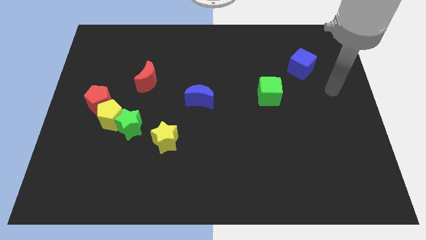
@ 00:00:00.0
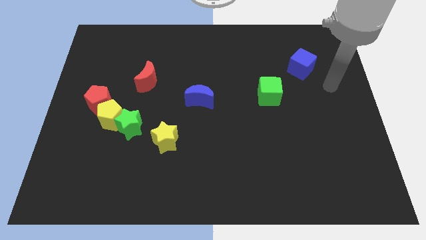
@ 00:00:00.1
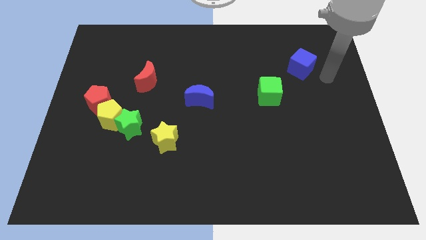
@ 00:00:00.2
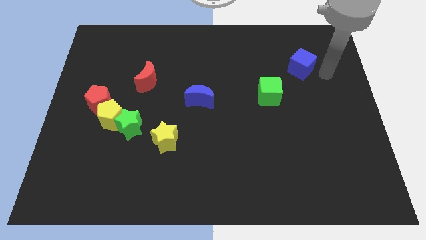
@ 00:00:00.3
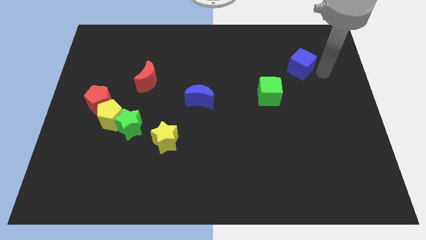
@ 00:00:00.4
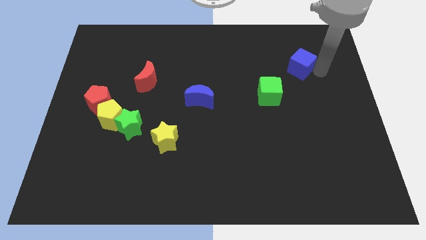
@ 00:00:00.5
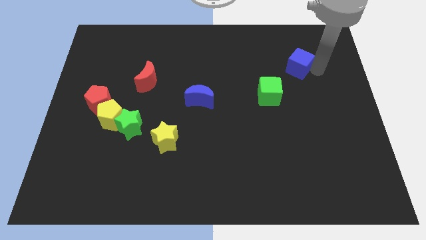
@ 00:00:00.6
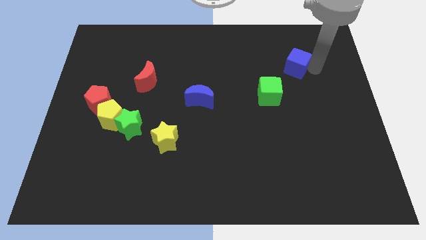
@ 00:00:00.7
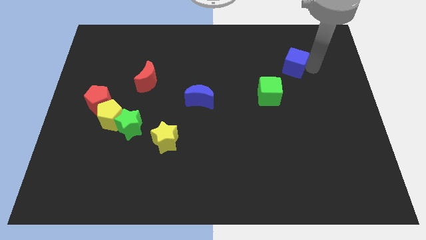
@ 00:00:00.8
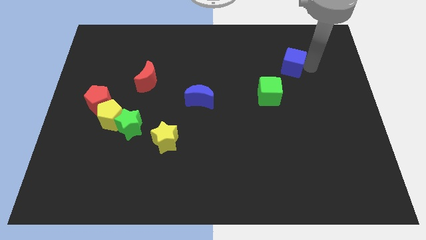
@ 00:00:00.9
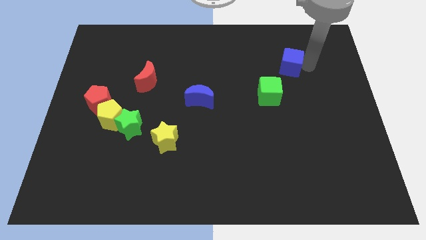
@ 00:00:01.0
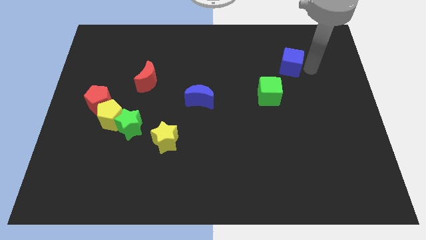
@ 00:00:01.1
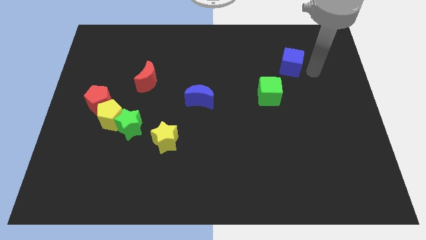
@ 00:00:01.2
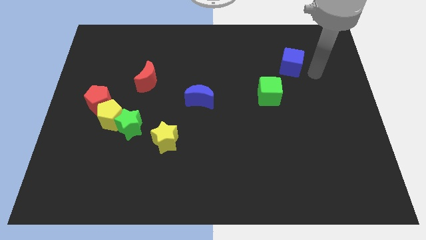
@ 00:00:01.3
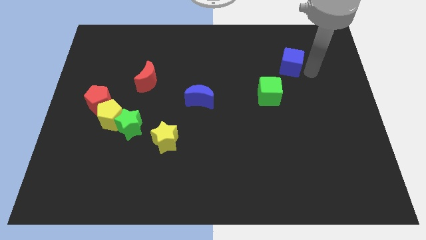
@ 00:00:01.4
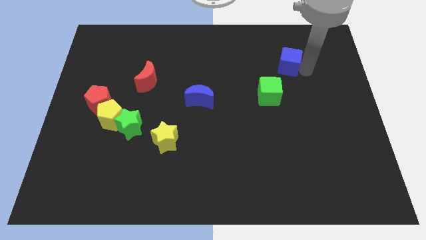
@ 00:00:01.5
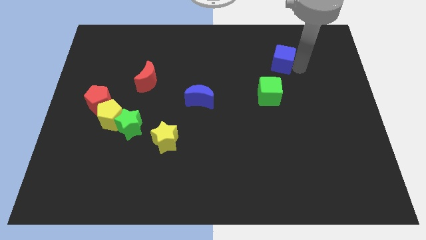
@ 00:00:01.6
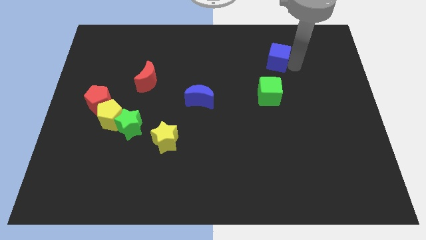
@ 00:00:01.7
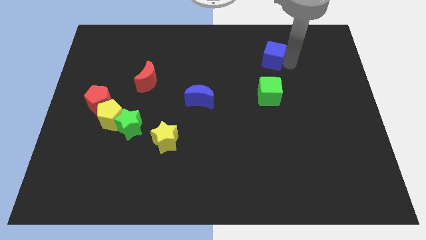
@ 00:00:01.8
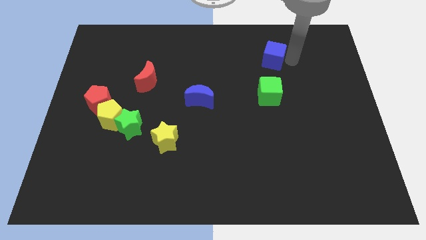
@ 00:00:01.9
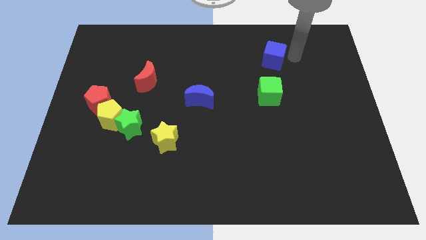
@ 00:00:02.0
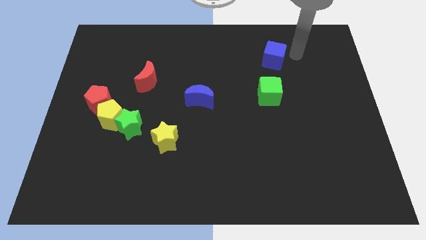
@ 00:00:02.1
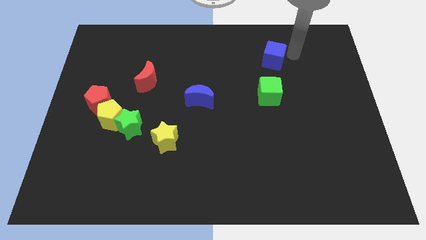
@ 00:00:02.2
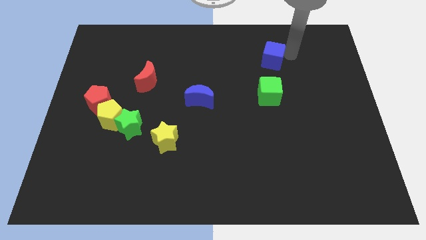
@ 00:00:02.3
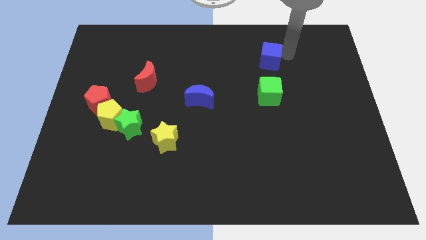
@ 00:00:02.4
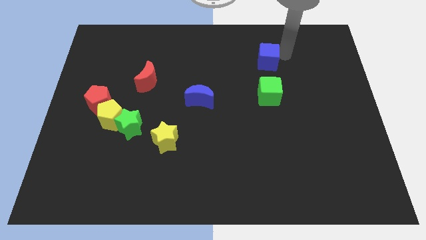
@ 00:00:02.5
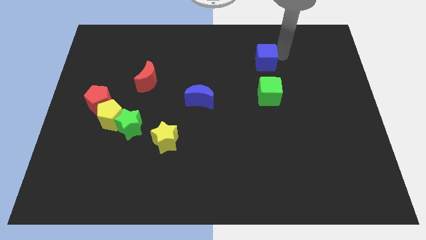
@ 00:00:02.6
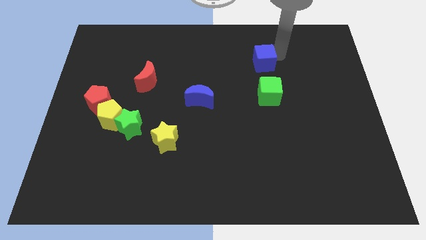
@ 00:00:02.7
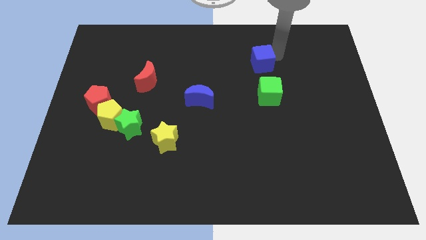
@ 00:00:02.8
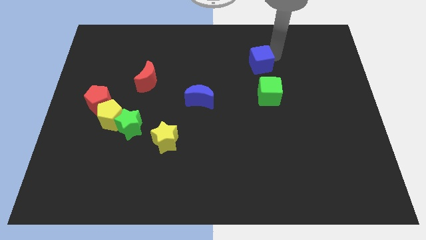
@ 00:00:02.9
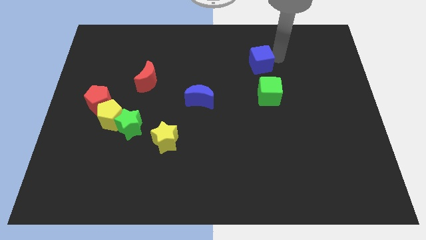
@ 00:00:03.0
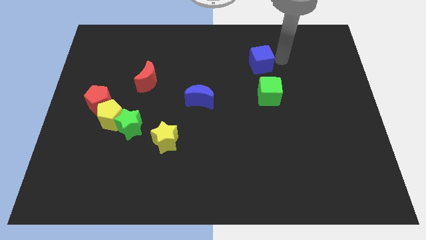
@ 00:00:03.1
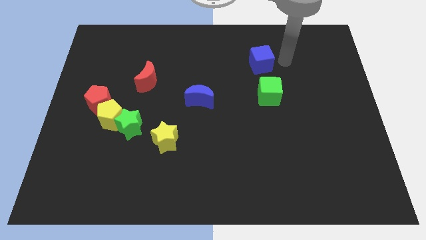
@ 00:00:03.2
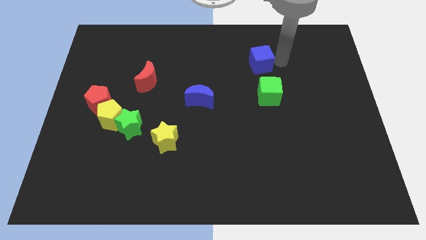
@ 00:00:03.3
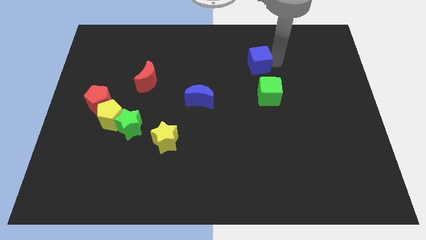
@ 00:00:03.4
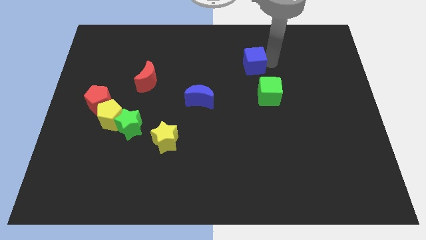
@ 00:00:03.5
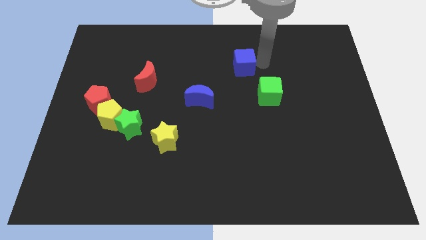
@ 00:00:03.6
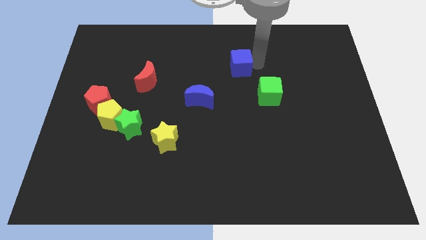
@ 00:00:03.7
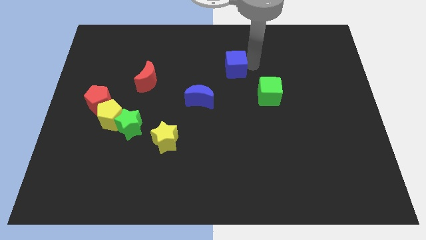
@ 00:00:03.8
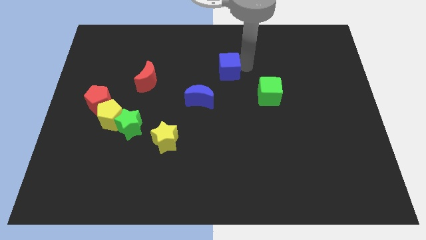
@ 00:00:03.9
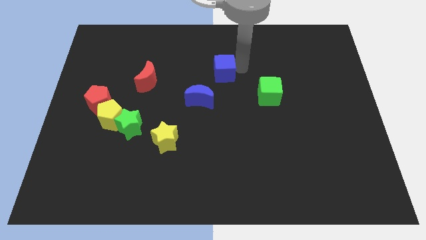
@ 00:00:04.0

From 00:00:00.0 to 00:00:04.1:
slide the blue cube left

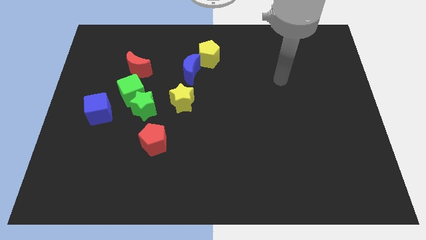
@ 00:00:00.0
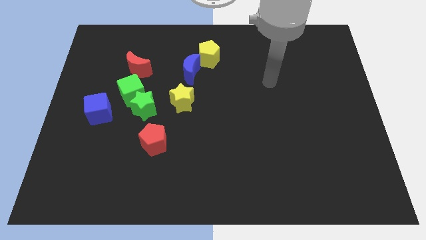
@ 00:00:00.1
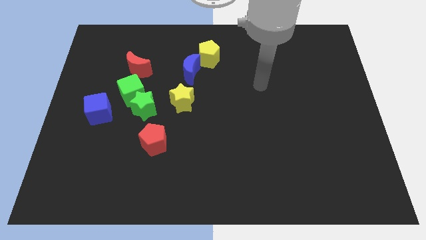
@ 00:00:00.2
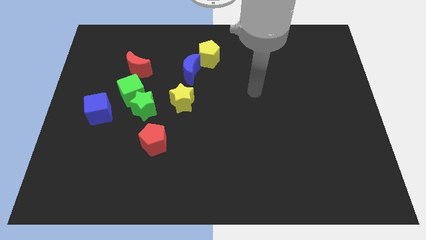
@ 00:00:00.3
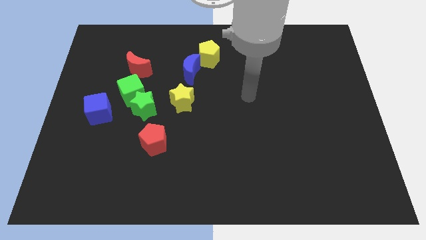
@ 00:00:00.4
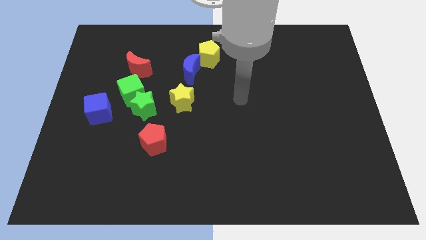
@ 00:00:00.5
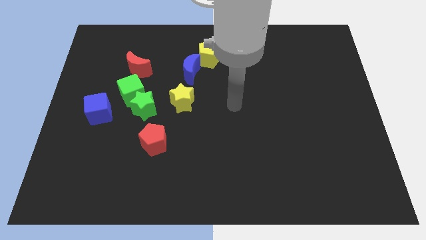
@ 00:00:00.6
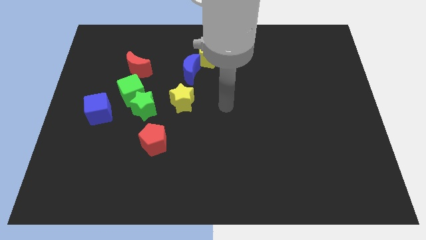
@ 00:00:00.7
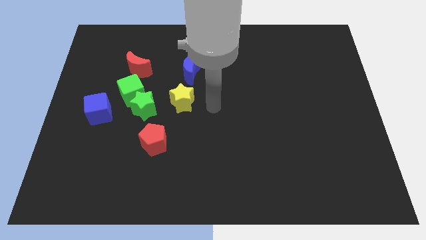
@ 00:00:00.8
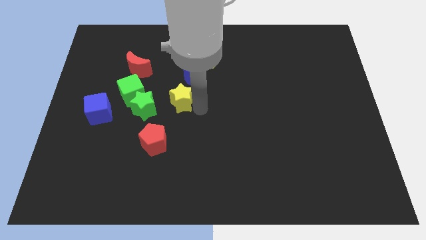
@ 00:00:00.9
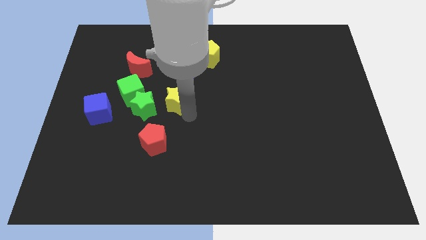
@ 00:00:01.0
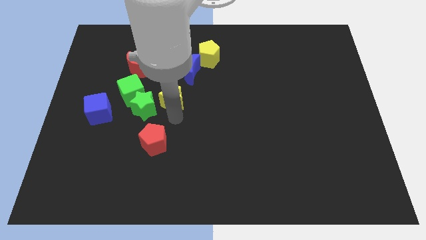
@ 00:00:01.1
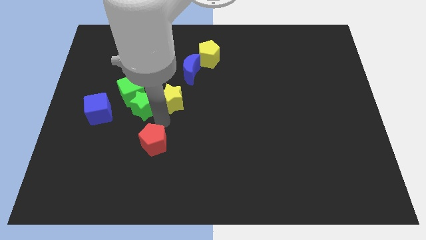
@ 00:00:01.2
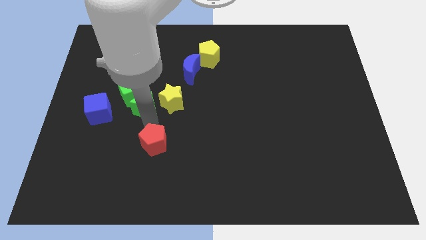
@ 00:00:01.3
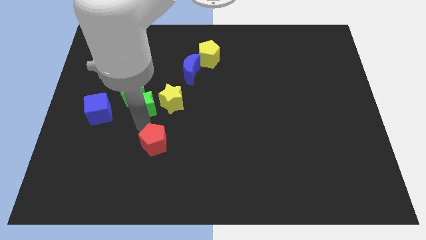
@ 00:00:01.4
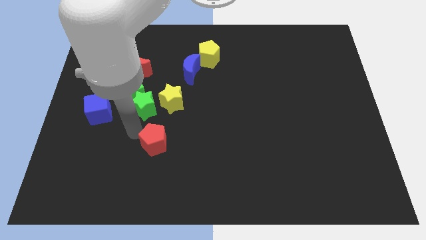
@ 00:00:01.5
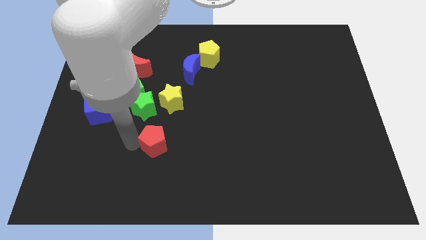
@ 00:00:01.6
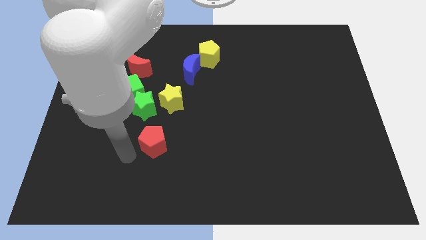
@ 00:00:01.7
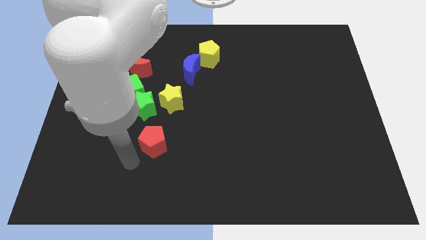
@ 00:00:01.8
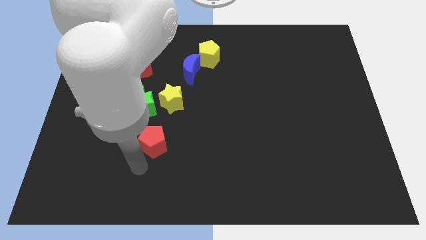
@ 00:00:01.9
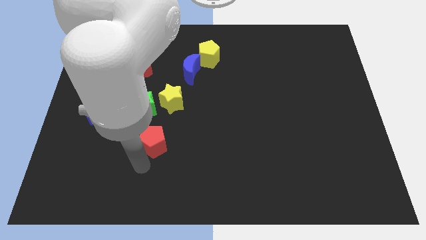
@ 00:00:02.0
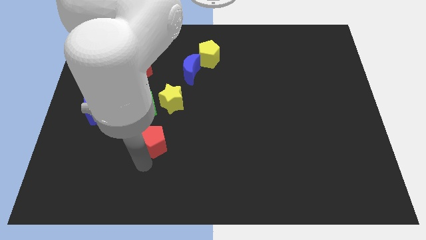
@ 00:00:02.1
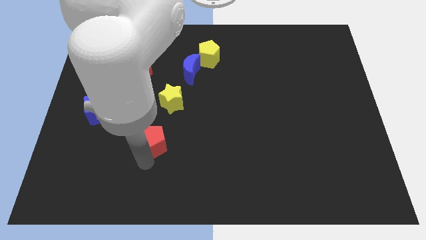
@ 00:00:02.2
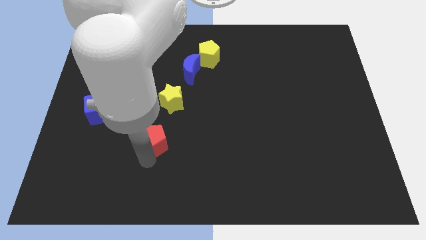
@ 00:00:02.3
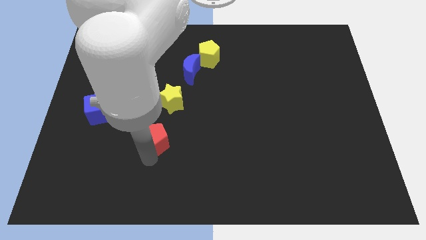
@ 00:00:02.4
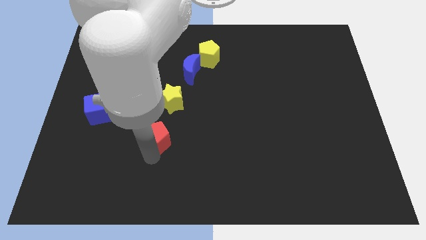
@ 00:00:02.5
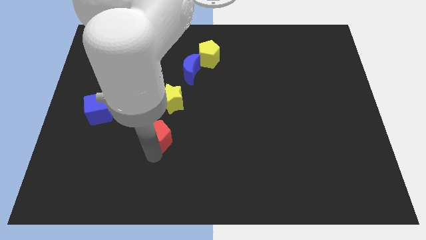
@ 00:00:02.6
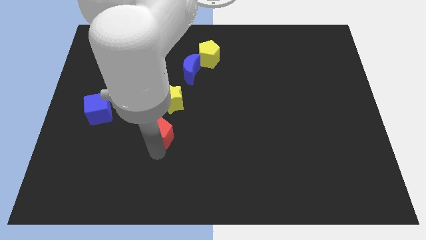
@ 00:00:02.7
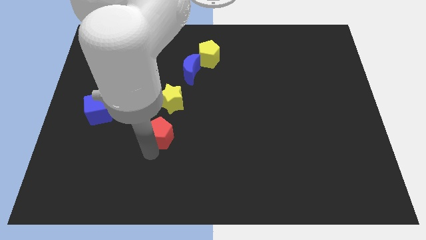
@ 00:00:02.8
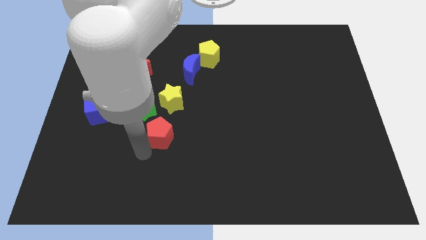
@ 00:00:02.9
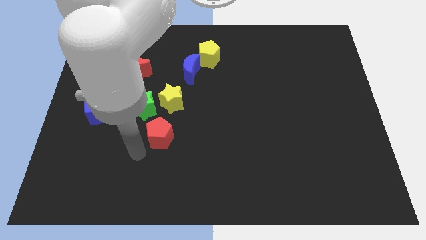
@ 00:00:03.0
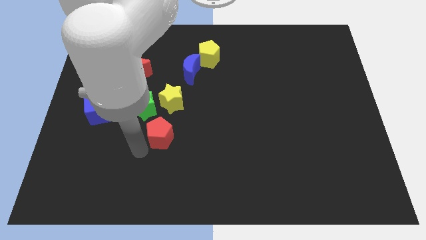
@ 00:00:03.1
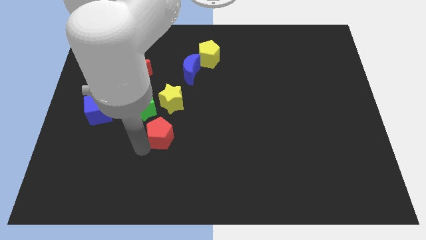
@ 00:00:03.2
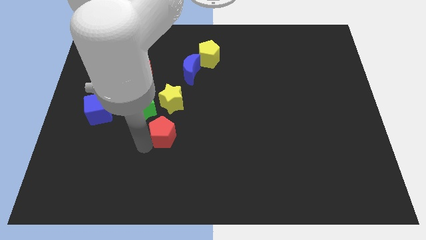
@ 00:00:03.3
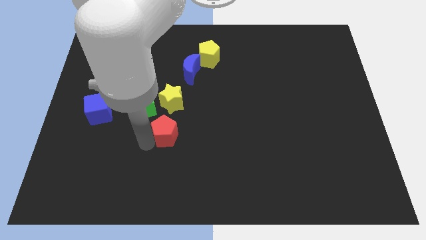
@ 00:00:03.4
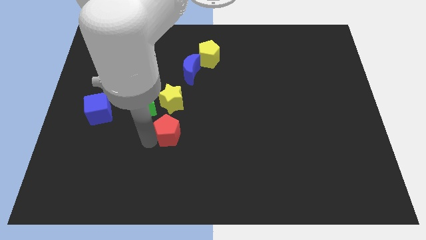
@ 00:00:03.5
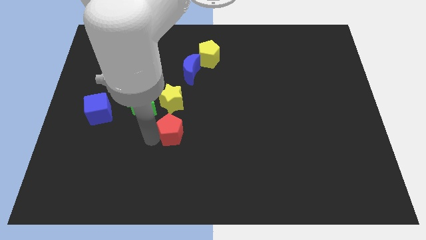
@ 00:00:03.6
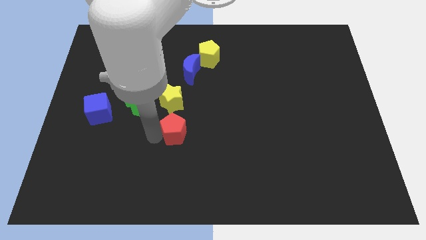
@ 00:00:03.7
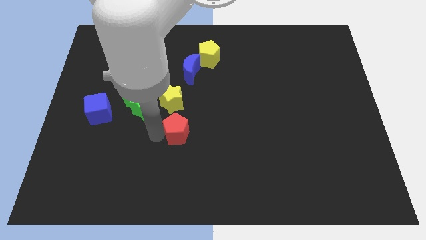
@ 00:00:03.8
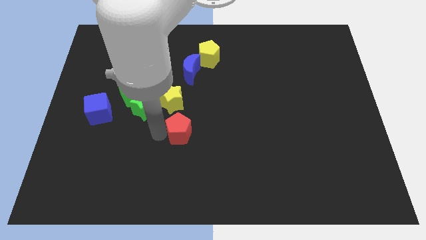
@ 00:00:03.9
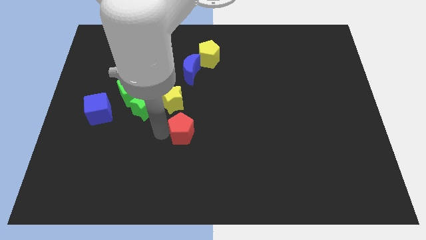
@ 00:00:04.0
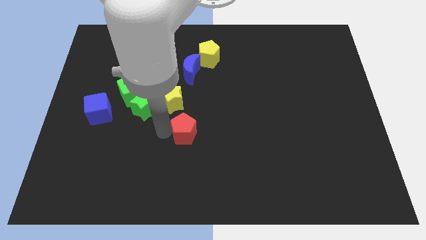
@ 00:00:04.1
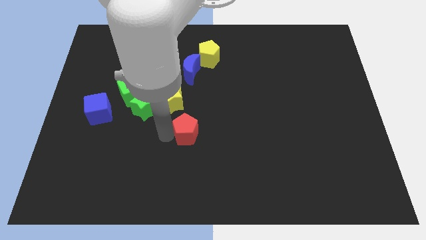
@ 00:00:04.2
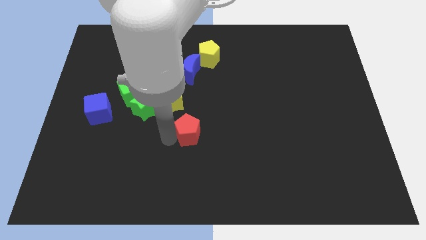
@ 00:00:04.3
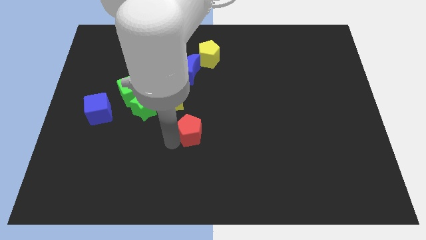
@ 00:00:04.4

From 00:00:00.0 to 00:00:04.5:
slightly move the red pentagon upwards and right
